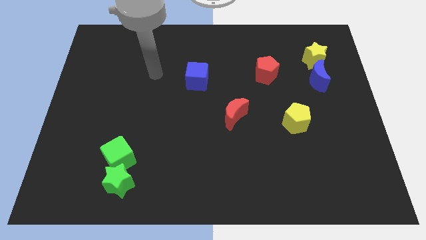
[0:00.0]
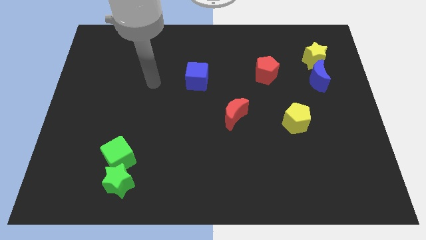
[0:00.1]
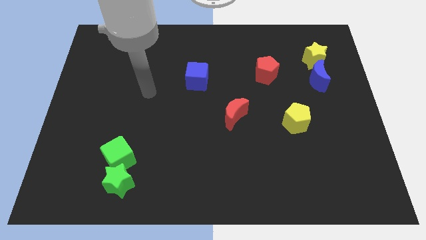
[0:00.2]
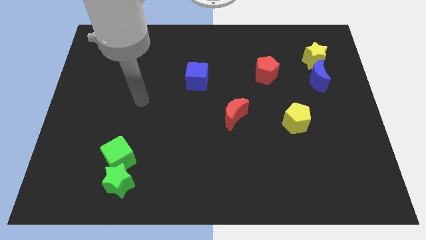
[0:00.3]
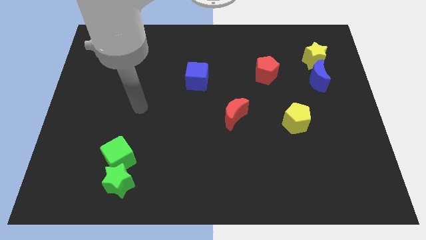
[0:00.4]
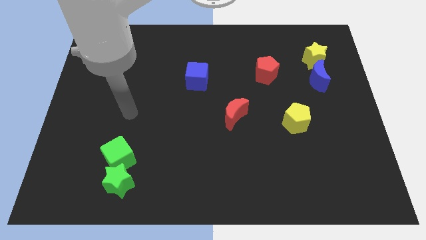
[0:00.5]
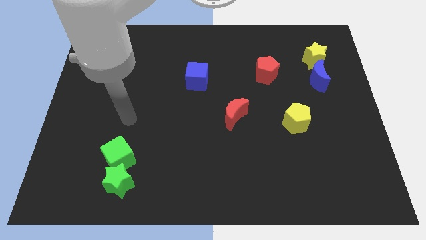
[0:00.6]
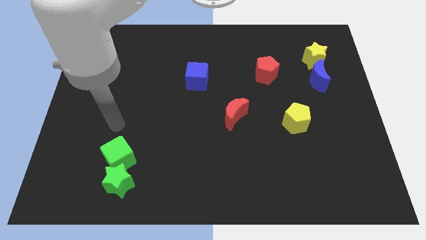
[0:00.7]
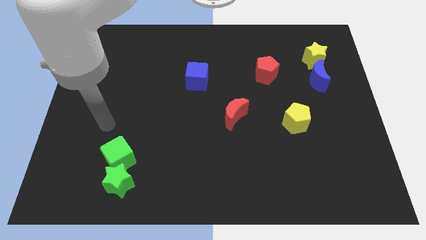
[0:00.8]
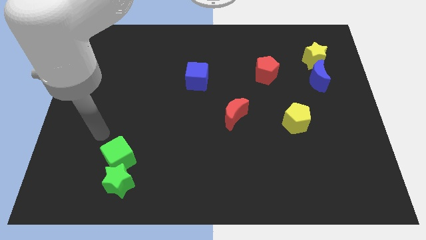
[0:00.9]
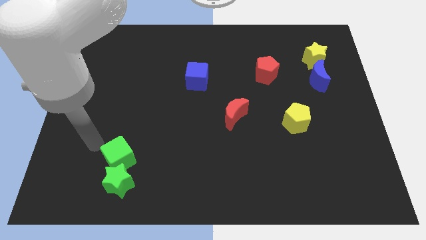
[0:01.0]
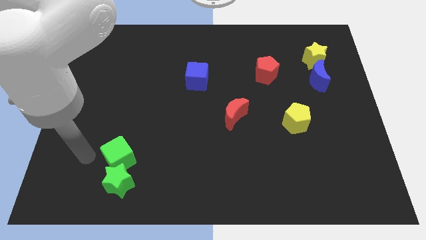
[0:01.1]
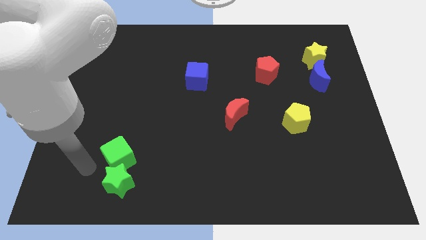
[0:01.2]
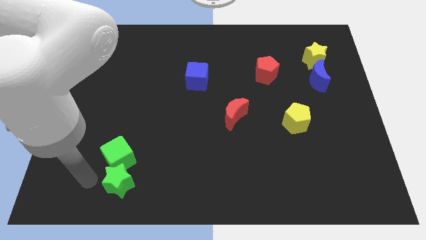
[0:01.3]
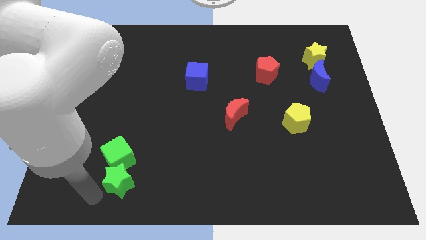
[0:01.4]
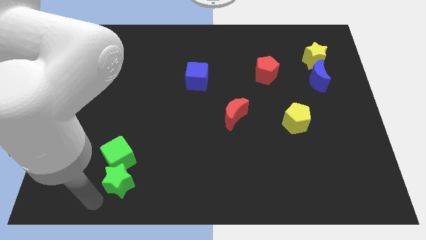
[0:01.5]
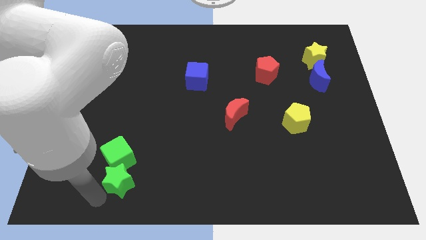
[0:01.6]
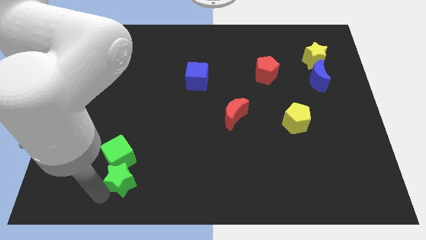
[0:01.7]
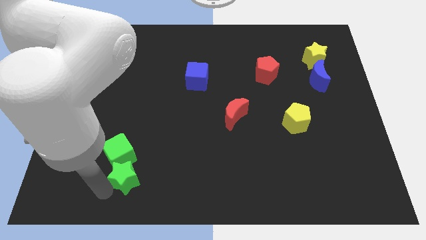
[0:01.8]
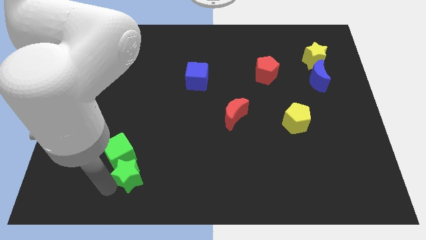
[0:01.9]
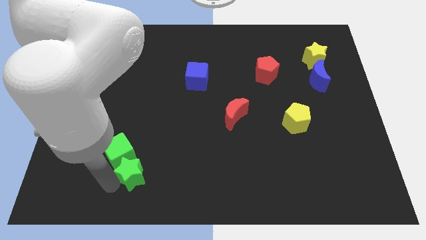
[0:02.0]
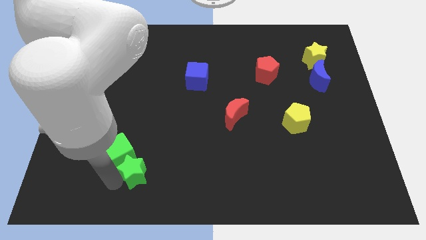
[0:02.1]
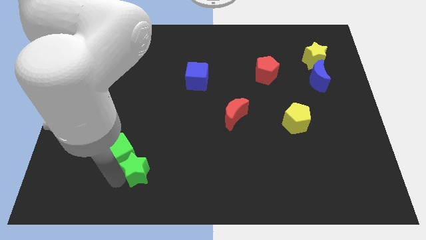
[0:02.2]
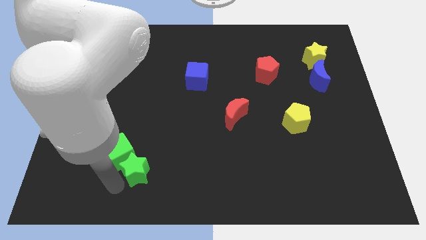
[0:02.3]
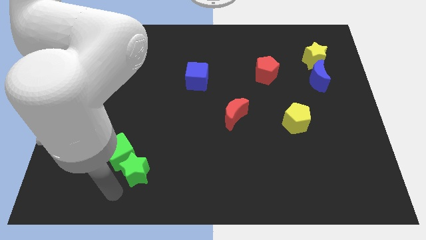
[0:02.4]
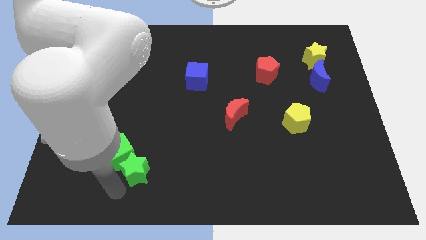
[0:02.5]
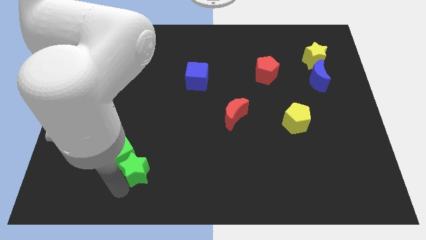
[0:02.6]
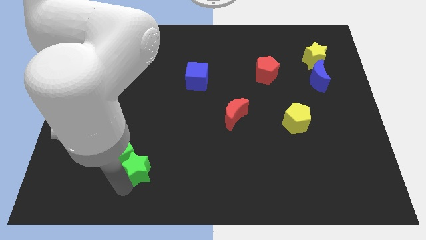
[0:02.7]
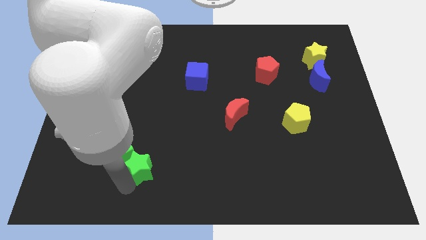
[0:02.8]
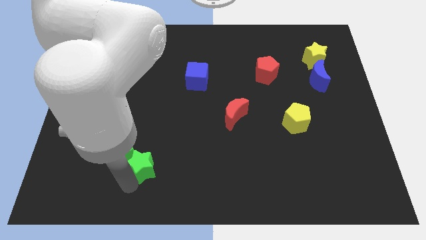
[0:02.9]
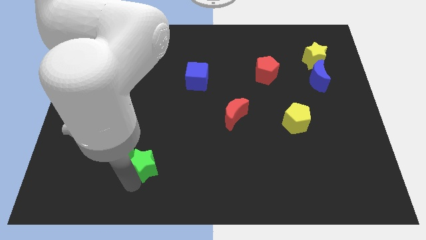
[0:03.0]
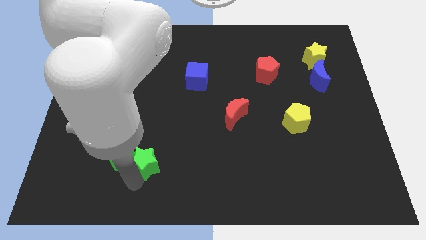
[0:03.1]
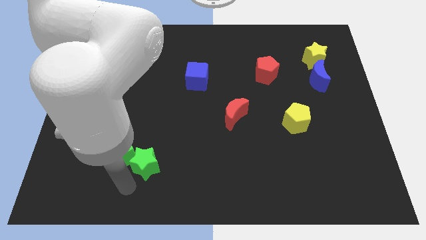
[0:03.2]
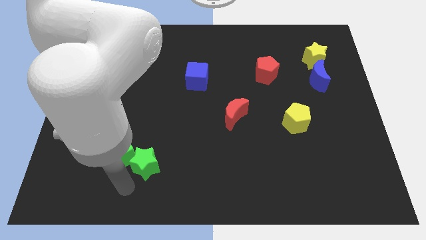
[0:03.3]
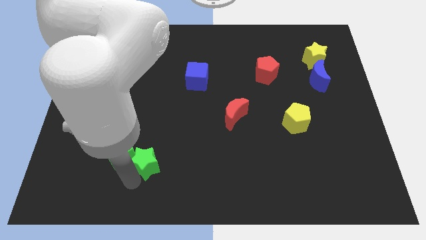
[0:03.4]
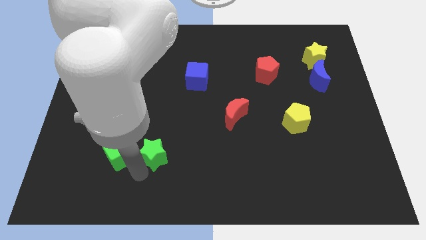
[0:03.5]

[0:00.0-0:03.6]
slide the green star diagonally upwards and right slightly

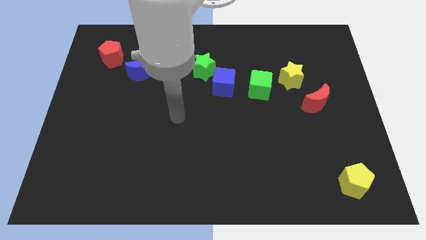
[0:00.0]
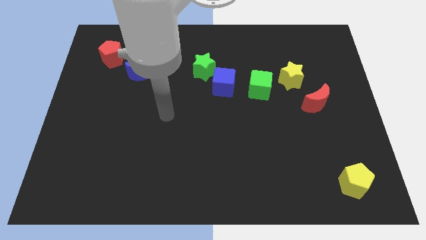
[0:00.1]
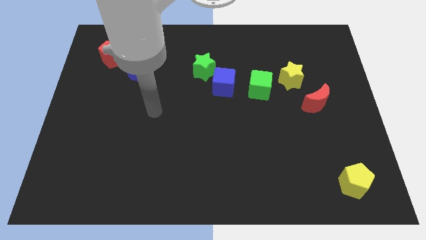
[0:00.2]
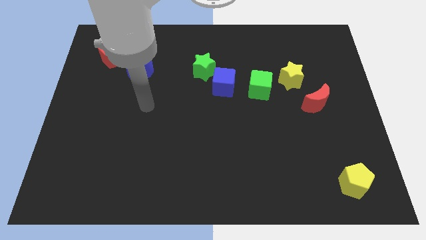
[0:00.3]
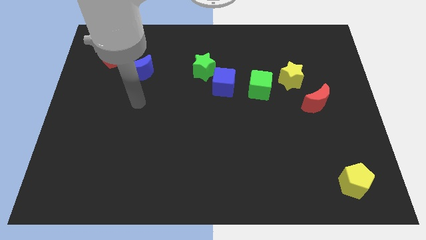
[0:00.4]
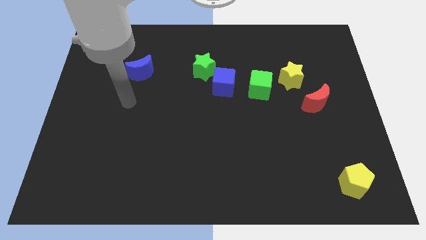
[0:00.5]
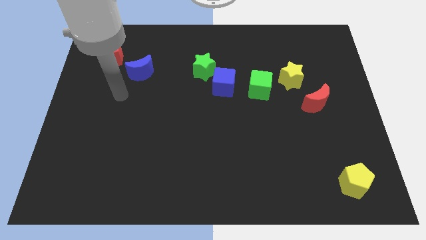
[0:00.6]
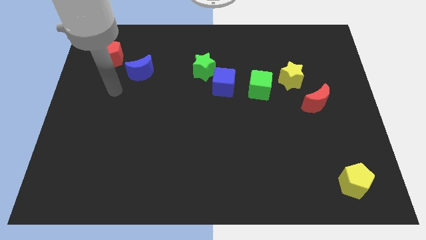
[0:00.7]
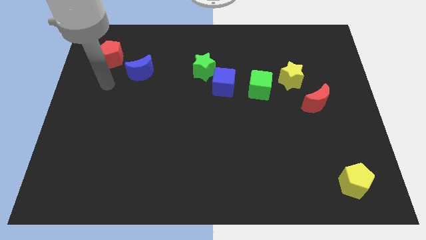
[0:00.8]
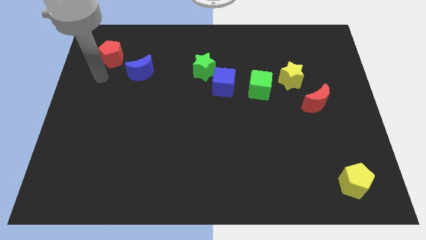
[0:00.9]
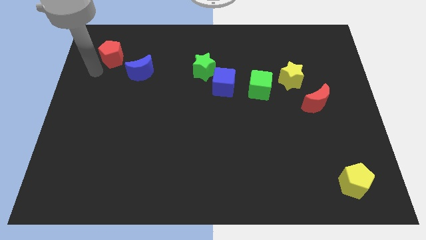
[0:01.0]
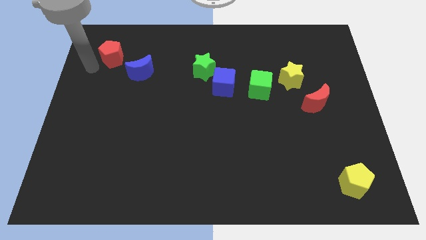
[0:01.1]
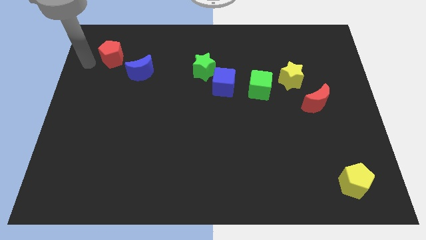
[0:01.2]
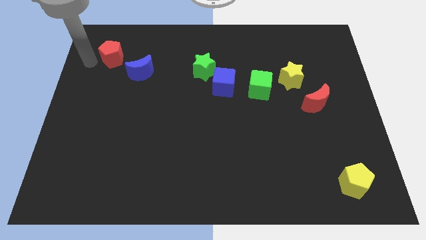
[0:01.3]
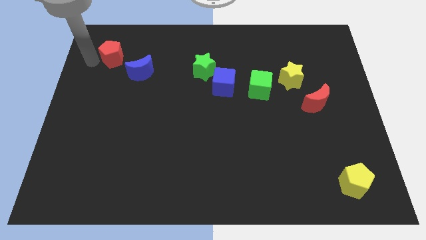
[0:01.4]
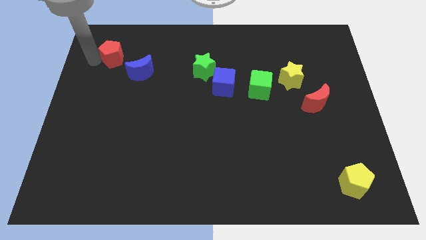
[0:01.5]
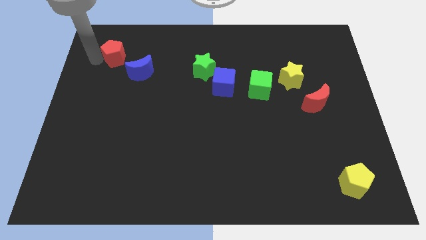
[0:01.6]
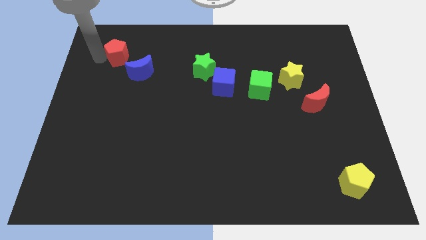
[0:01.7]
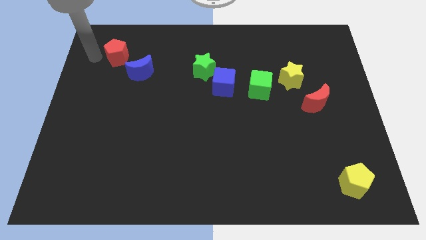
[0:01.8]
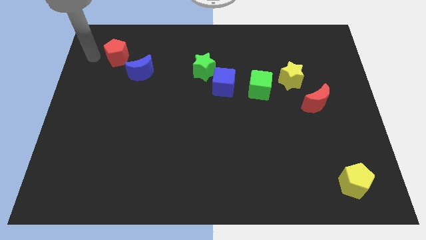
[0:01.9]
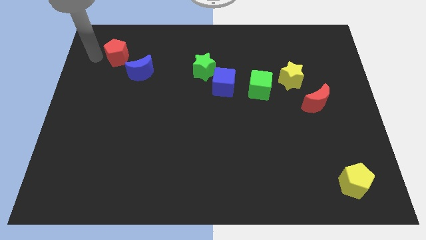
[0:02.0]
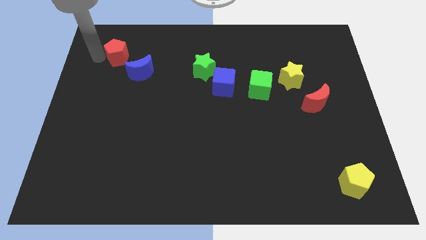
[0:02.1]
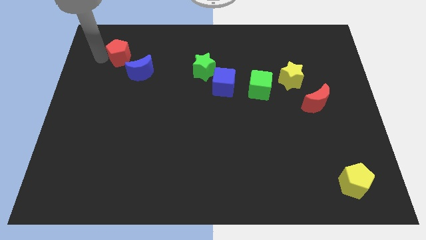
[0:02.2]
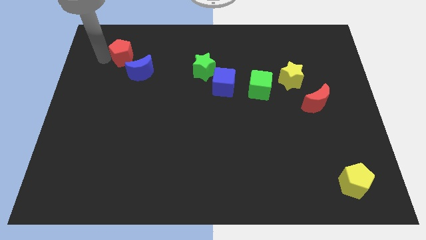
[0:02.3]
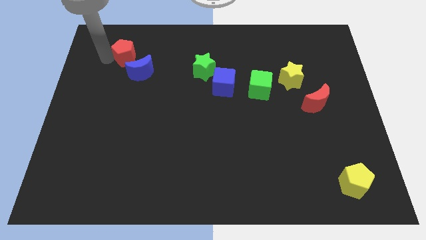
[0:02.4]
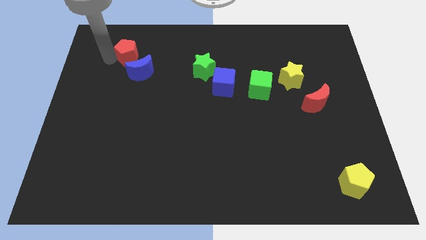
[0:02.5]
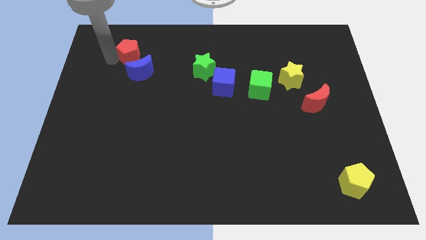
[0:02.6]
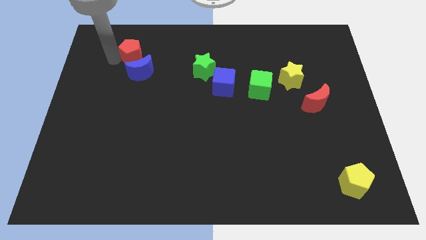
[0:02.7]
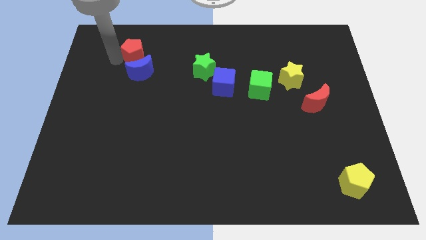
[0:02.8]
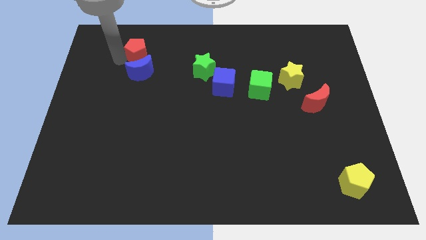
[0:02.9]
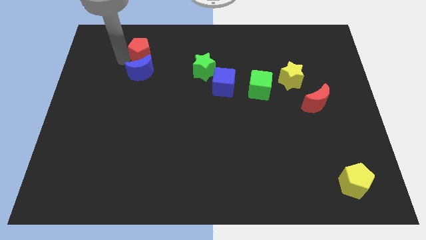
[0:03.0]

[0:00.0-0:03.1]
push the red pentagon a little right

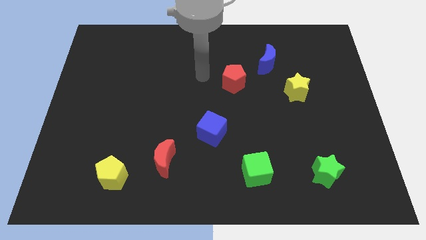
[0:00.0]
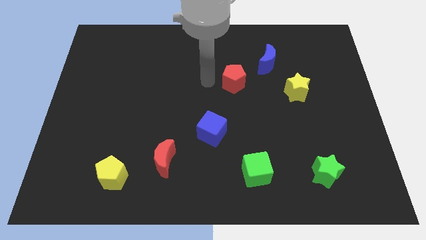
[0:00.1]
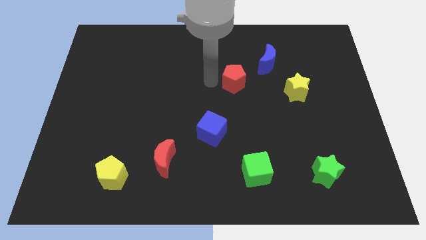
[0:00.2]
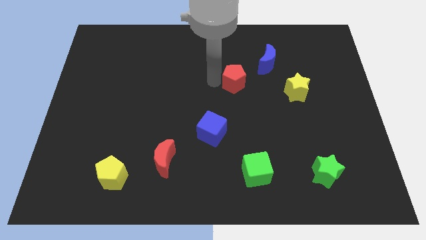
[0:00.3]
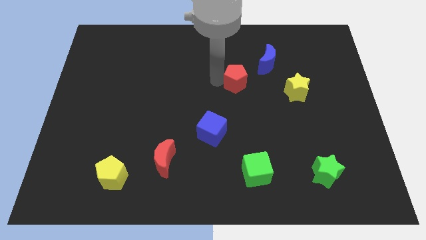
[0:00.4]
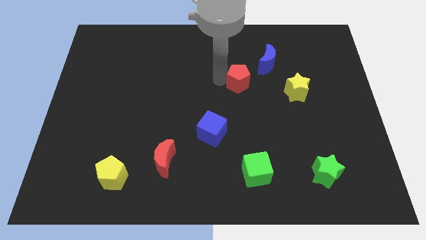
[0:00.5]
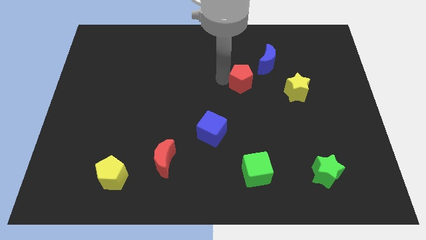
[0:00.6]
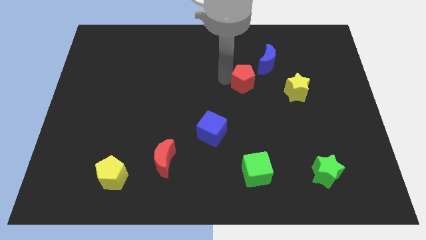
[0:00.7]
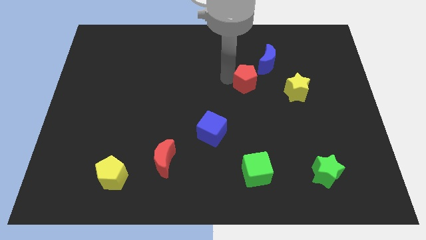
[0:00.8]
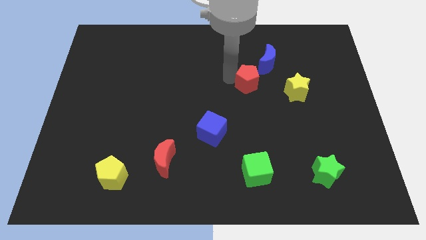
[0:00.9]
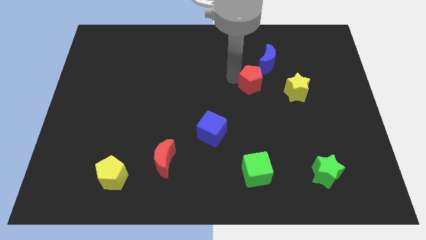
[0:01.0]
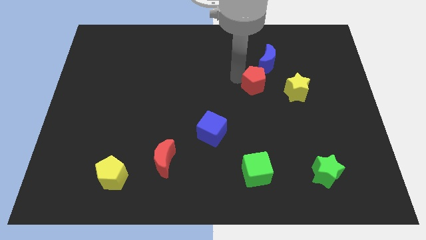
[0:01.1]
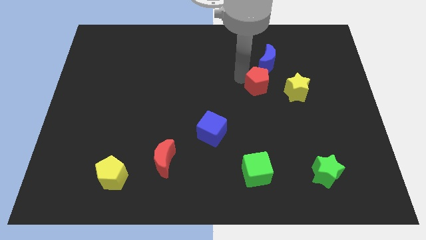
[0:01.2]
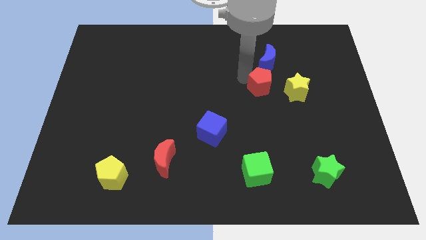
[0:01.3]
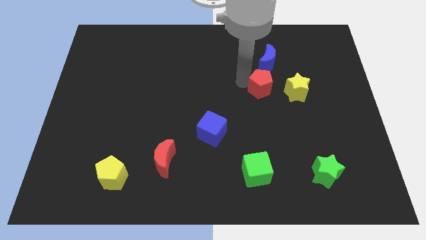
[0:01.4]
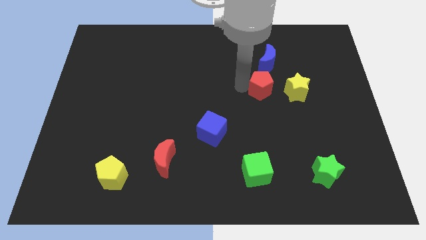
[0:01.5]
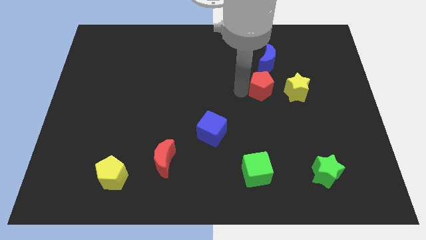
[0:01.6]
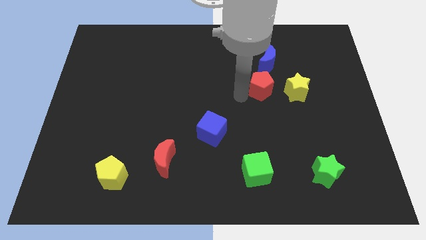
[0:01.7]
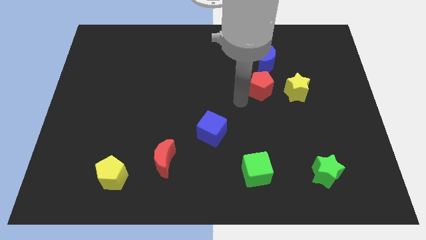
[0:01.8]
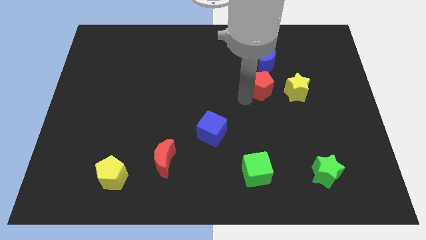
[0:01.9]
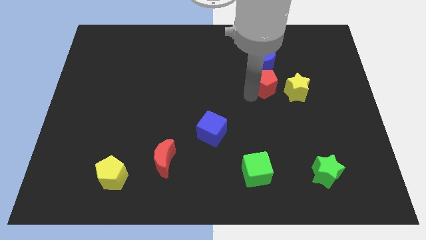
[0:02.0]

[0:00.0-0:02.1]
push the red pentagon to the right slightly
